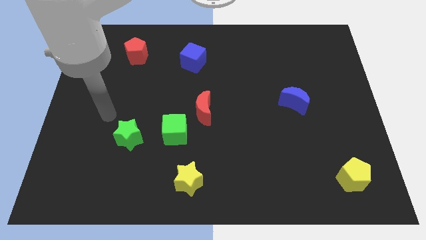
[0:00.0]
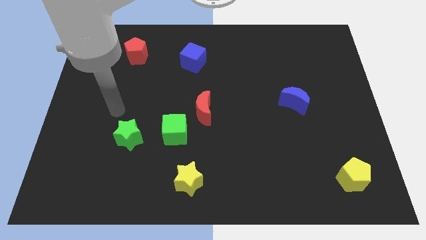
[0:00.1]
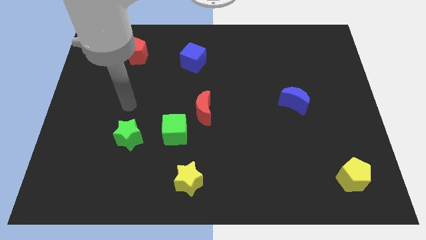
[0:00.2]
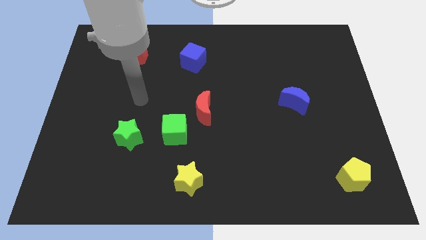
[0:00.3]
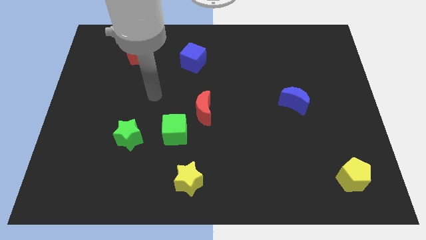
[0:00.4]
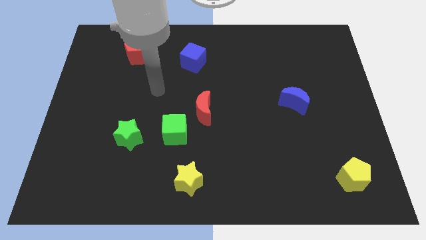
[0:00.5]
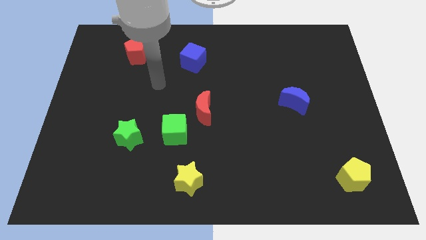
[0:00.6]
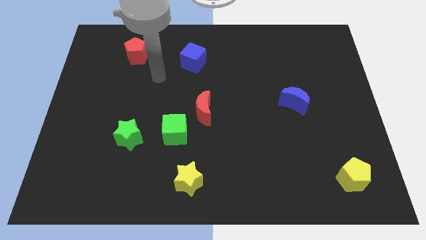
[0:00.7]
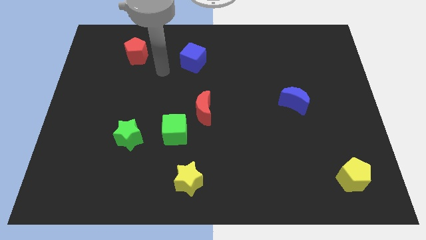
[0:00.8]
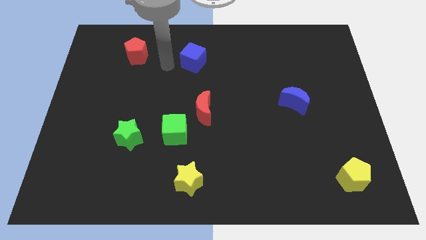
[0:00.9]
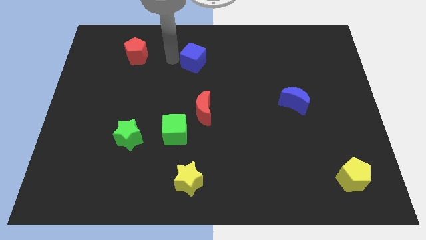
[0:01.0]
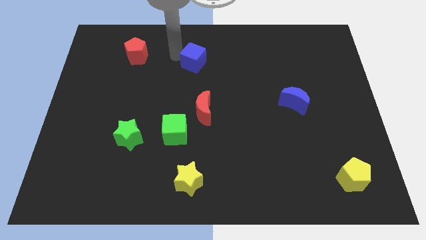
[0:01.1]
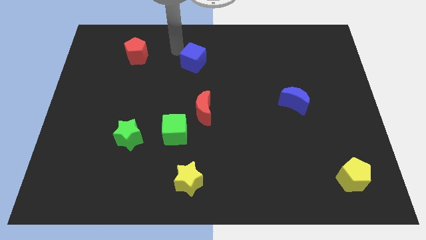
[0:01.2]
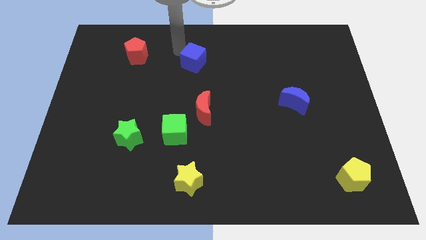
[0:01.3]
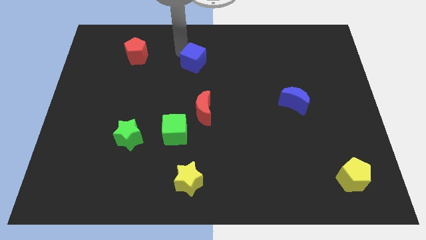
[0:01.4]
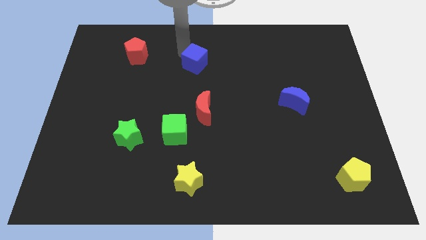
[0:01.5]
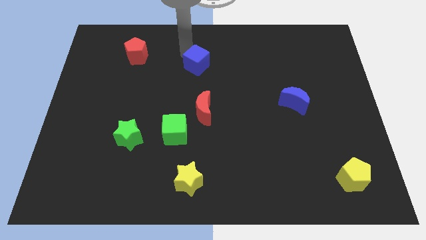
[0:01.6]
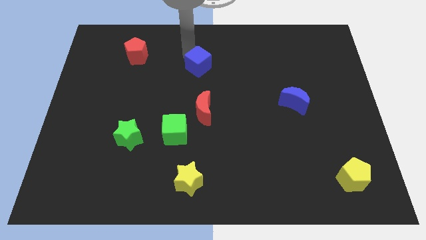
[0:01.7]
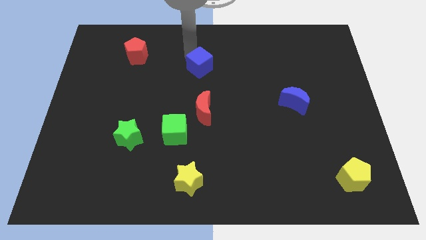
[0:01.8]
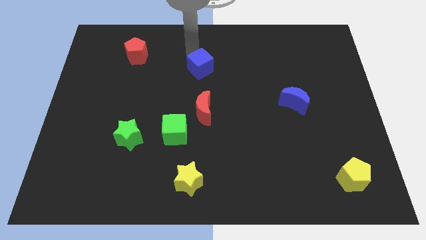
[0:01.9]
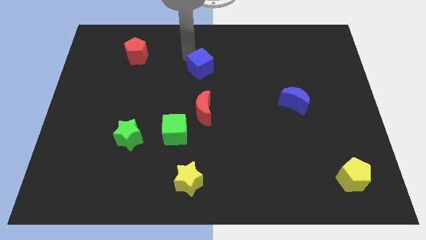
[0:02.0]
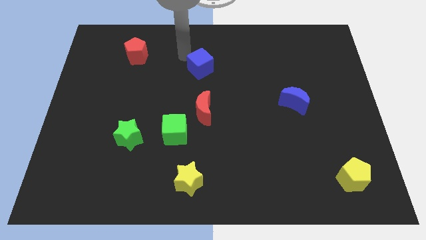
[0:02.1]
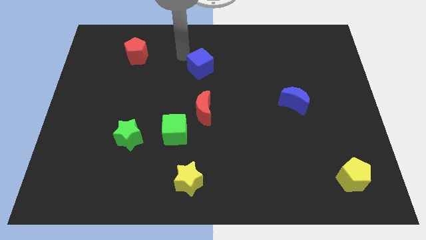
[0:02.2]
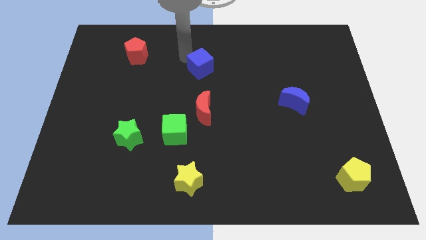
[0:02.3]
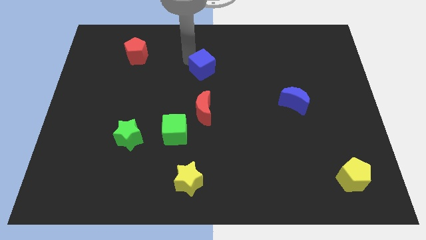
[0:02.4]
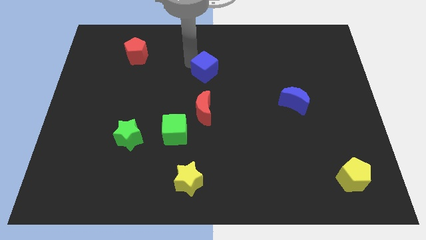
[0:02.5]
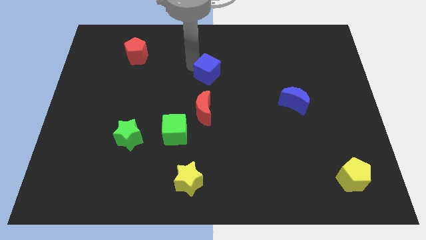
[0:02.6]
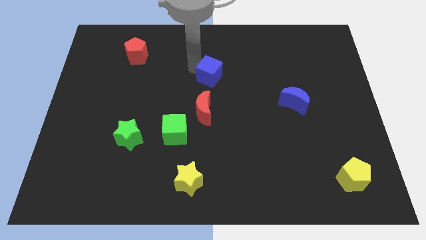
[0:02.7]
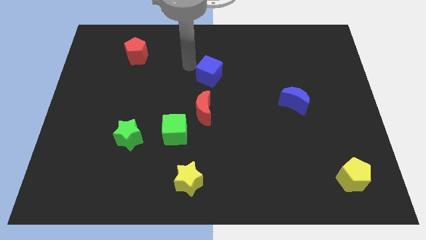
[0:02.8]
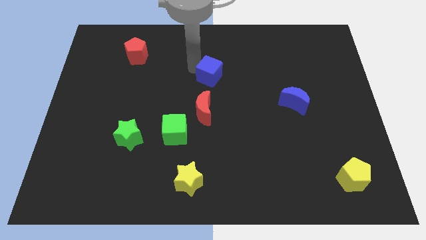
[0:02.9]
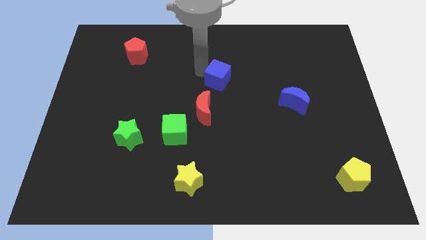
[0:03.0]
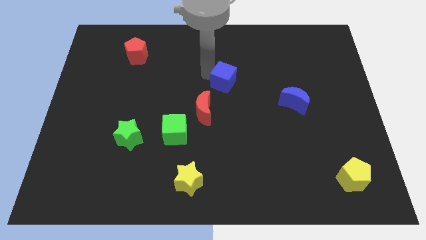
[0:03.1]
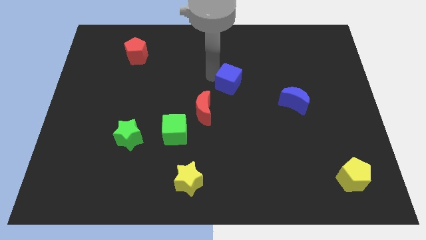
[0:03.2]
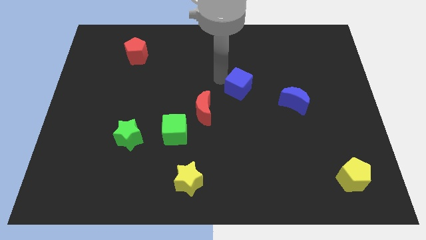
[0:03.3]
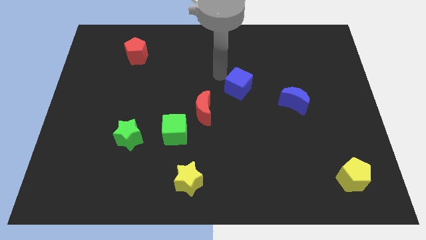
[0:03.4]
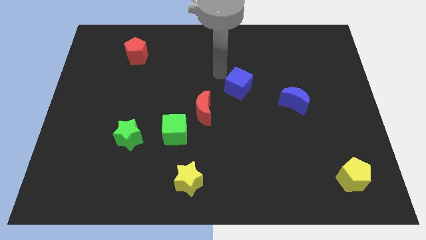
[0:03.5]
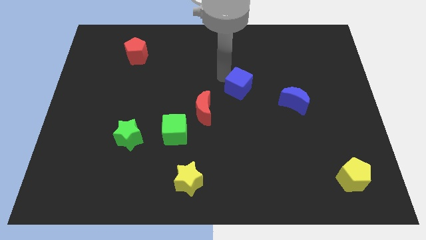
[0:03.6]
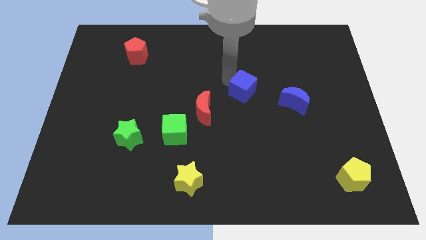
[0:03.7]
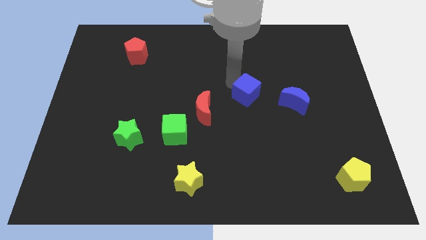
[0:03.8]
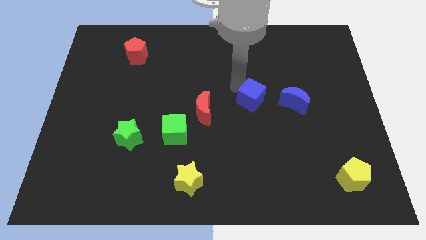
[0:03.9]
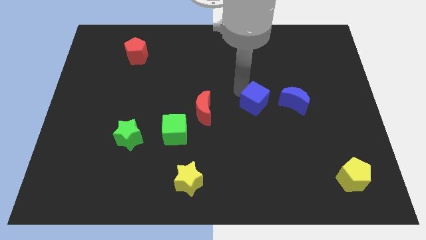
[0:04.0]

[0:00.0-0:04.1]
move the blue cube downwards and to the right

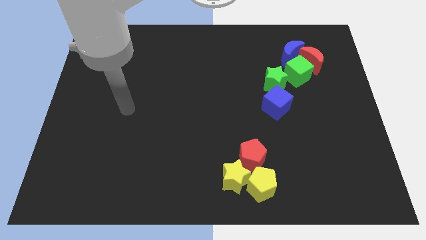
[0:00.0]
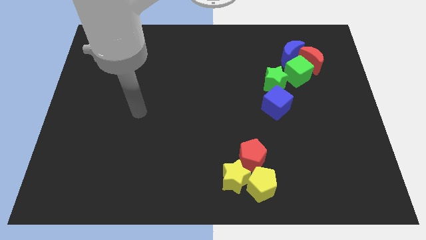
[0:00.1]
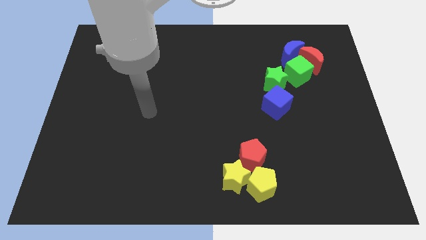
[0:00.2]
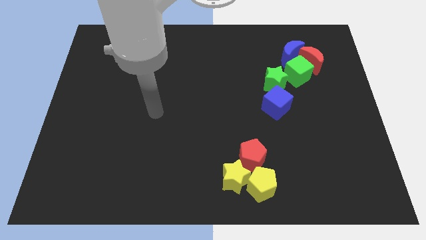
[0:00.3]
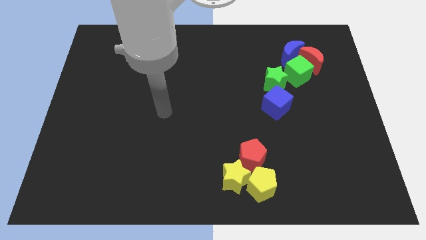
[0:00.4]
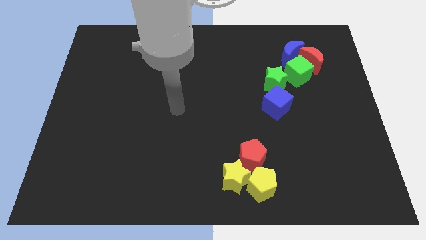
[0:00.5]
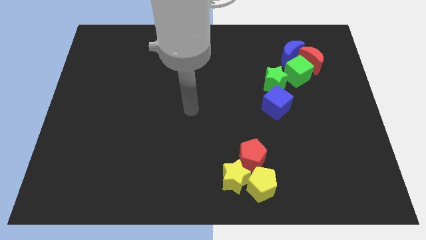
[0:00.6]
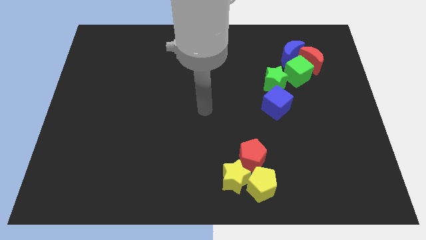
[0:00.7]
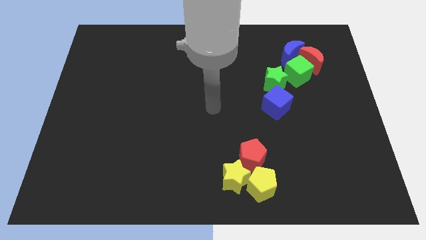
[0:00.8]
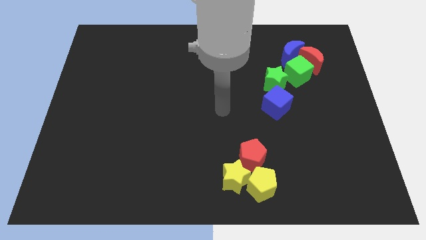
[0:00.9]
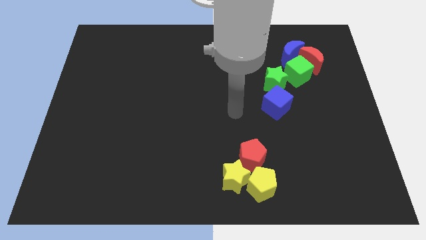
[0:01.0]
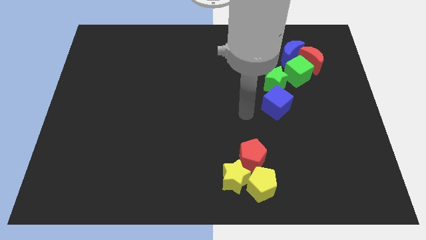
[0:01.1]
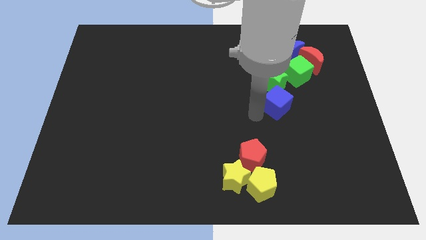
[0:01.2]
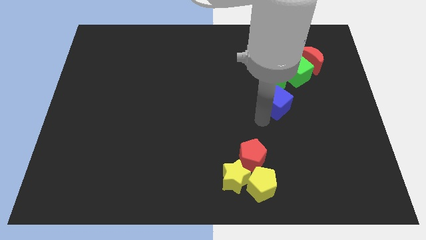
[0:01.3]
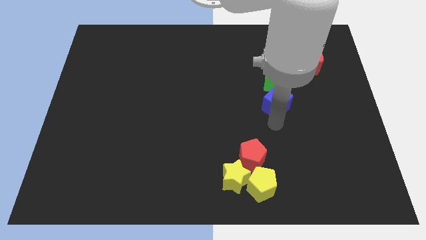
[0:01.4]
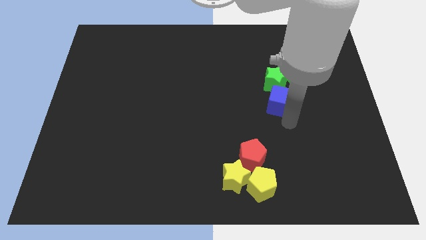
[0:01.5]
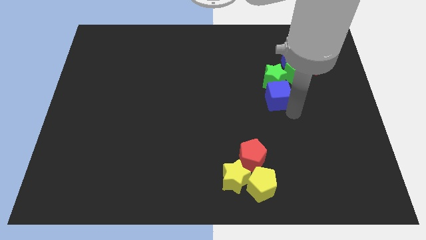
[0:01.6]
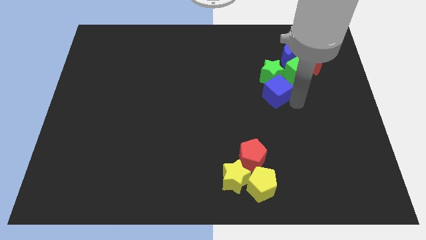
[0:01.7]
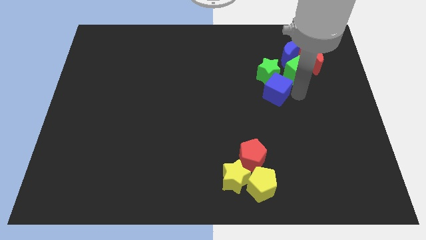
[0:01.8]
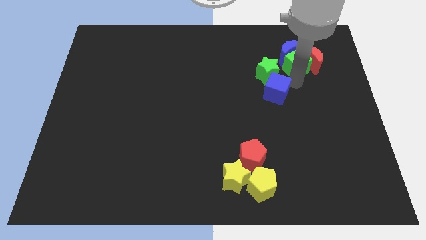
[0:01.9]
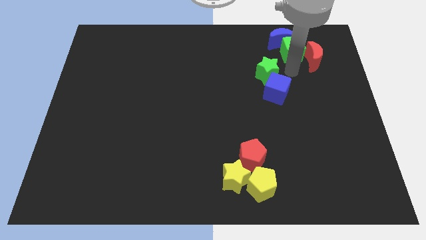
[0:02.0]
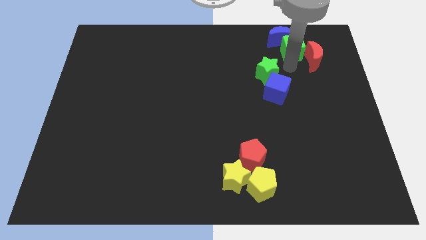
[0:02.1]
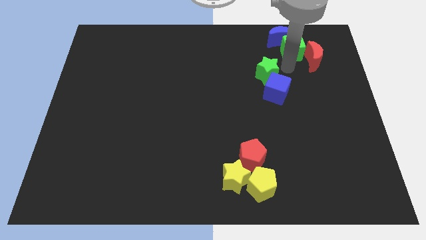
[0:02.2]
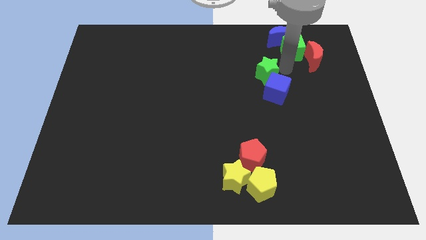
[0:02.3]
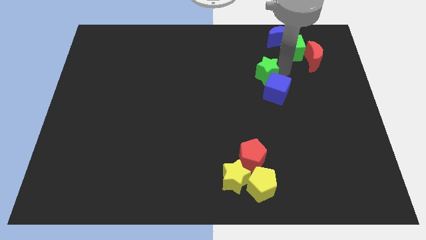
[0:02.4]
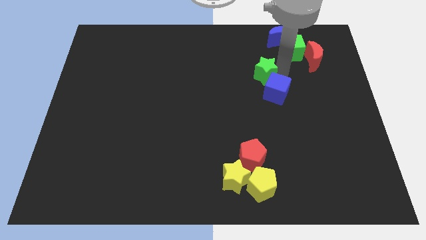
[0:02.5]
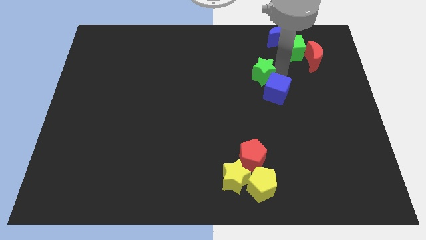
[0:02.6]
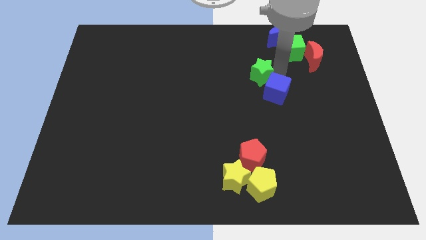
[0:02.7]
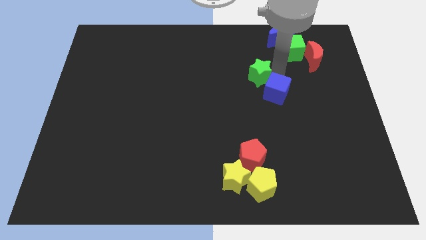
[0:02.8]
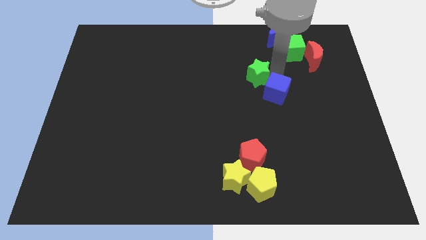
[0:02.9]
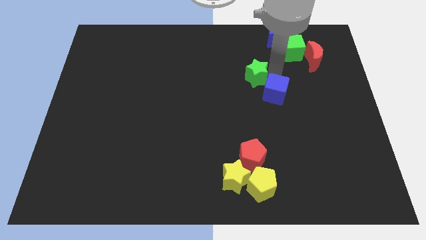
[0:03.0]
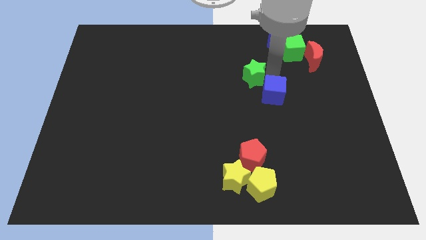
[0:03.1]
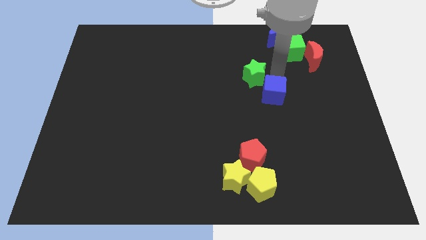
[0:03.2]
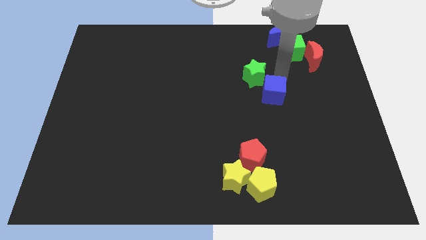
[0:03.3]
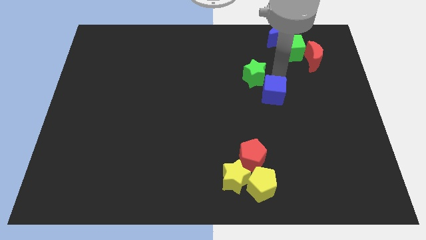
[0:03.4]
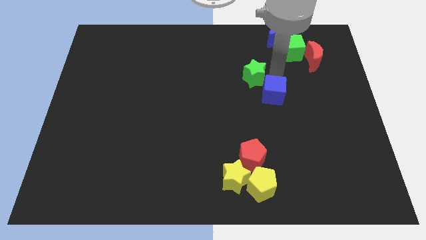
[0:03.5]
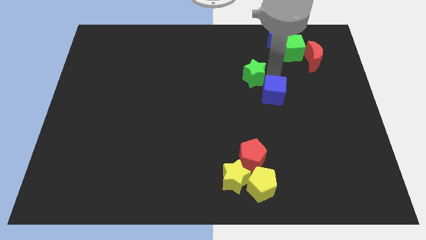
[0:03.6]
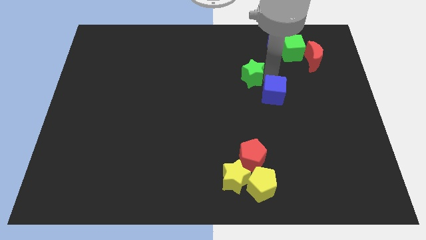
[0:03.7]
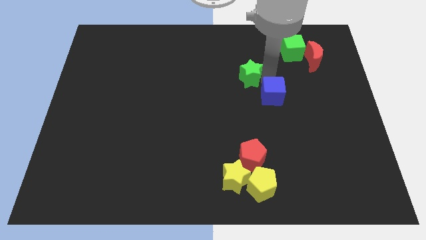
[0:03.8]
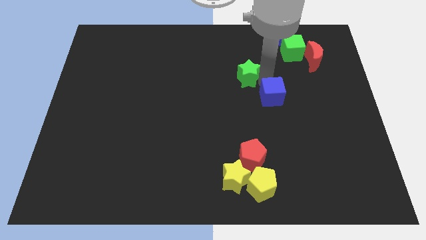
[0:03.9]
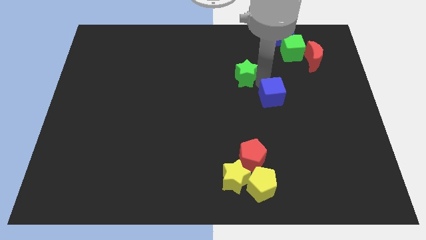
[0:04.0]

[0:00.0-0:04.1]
slightly move the green star to the left
